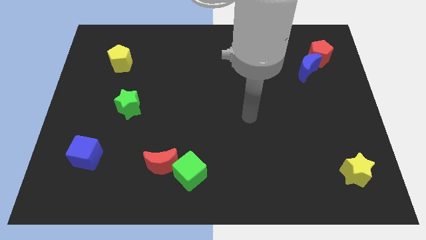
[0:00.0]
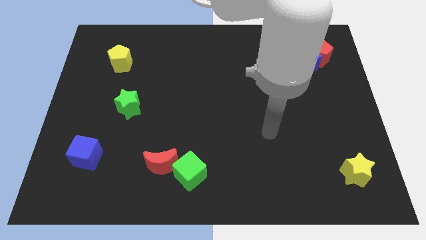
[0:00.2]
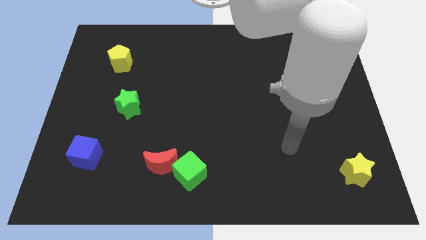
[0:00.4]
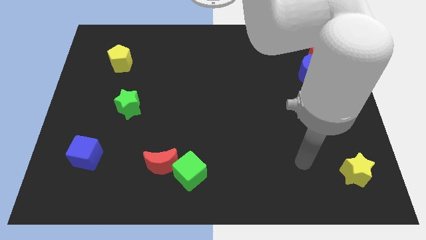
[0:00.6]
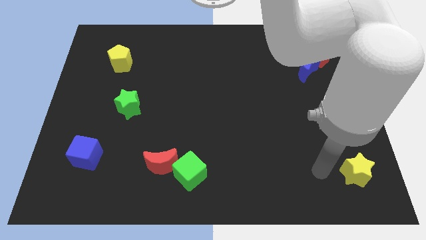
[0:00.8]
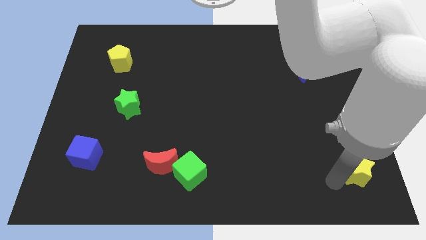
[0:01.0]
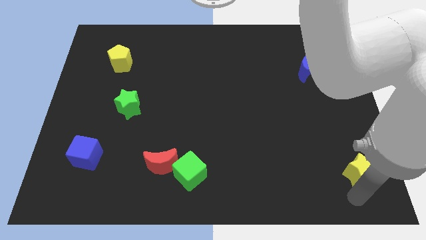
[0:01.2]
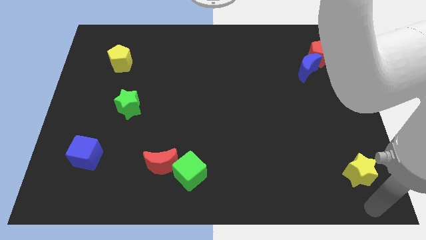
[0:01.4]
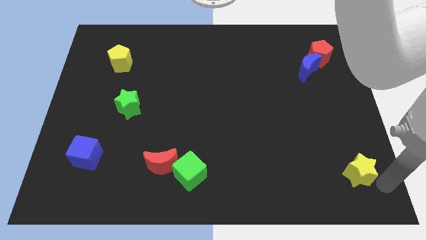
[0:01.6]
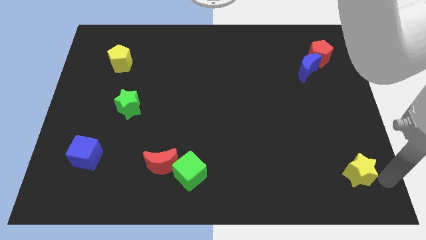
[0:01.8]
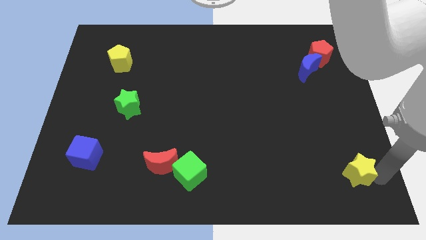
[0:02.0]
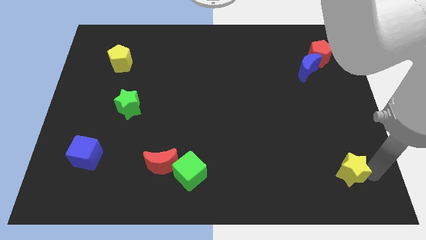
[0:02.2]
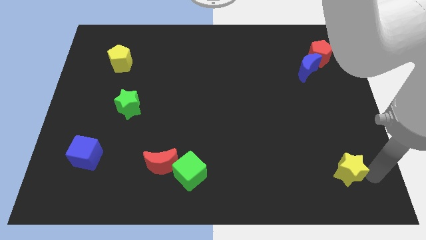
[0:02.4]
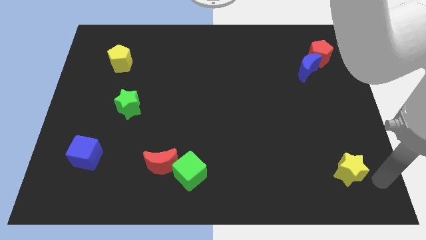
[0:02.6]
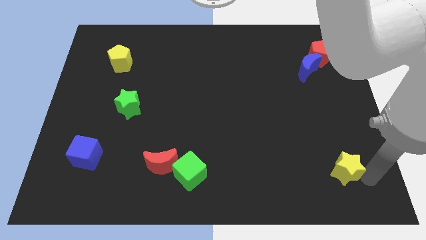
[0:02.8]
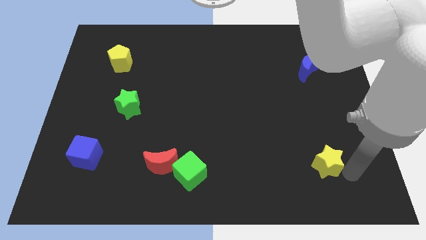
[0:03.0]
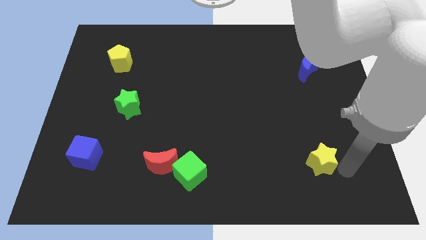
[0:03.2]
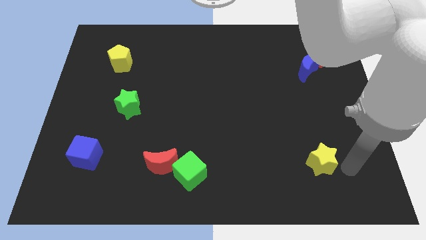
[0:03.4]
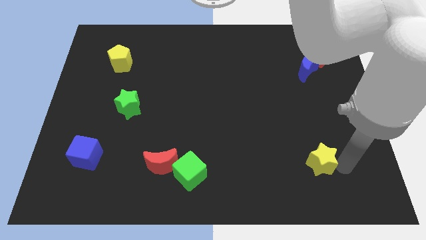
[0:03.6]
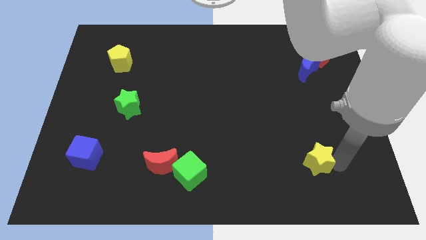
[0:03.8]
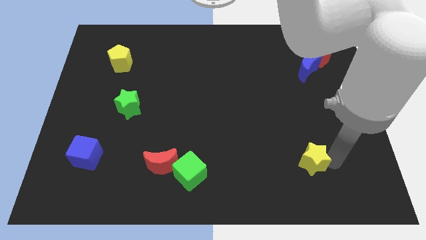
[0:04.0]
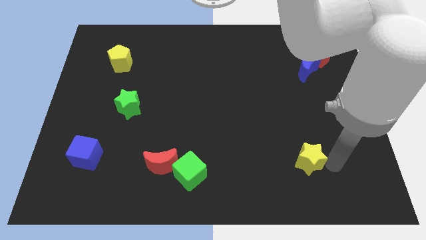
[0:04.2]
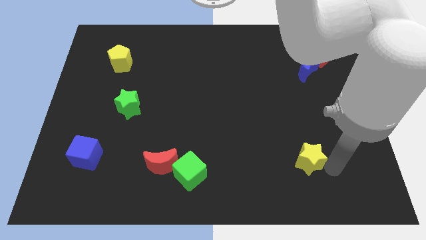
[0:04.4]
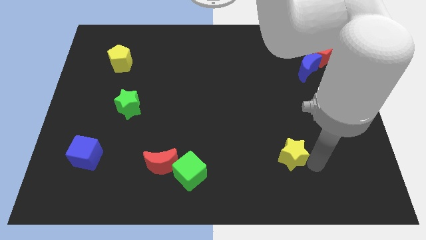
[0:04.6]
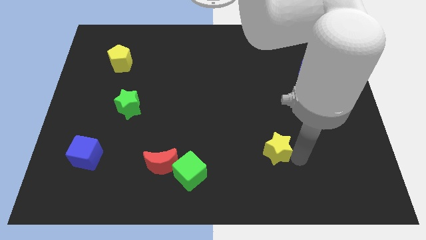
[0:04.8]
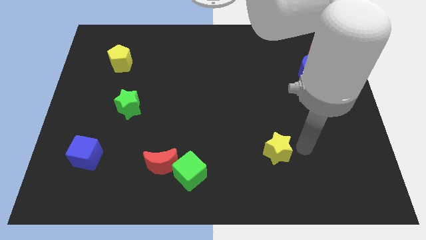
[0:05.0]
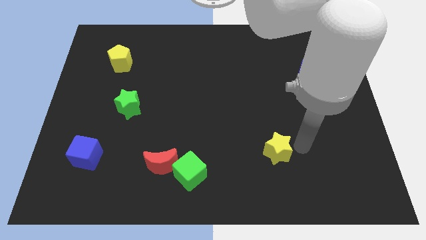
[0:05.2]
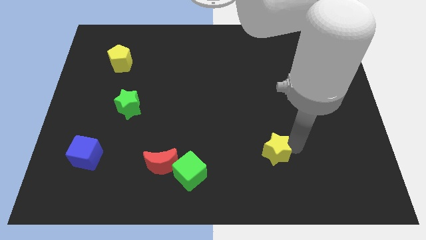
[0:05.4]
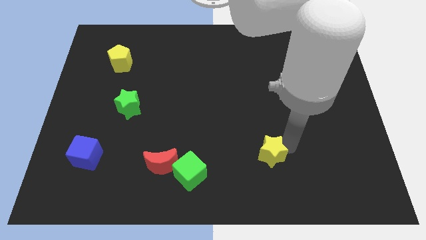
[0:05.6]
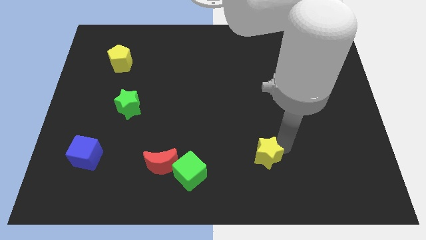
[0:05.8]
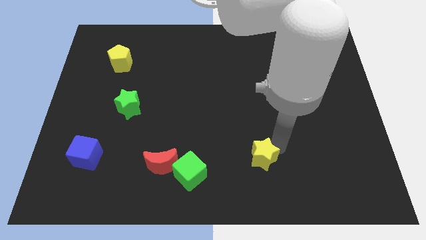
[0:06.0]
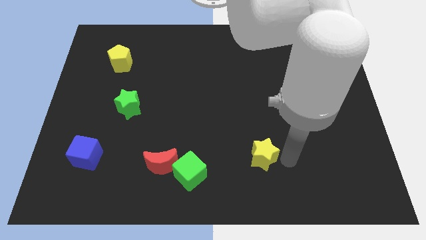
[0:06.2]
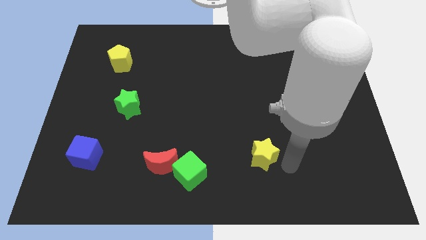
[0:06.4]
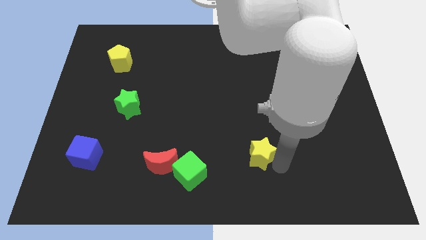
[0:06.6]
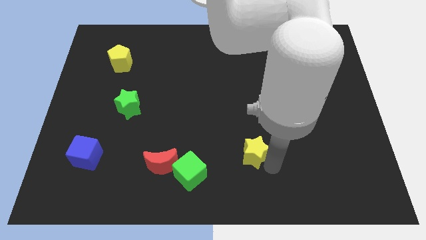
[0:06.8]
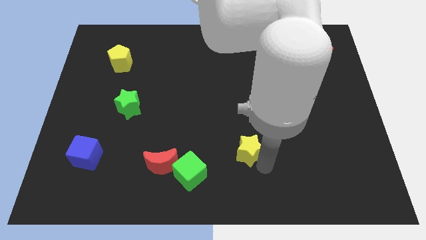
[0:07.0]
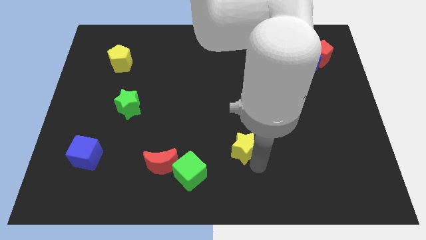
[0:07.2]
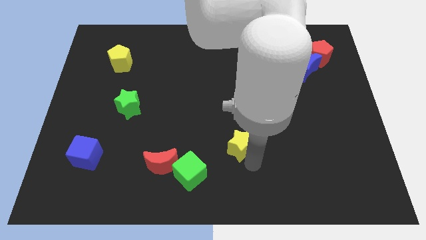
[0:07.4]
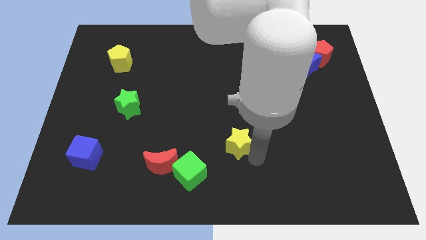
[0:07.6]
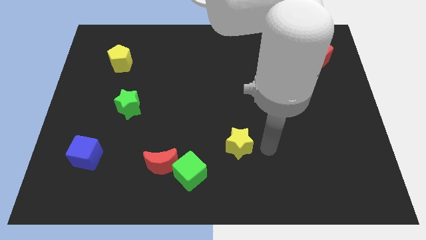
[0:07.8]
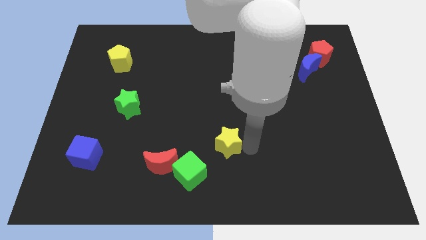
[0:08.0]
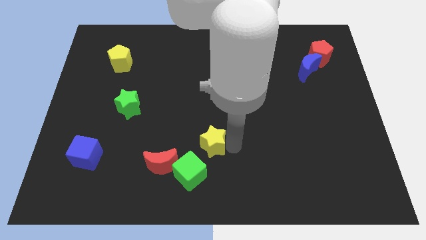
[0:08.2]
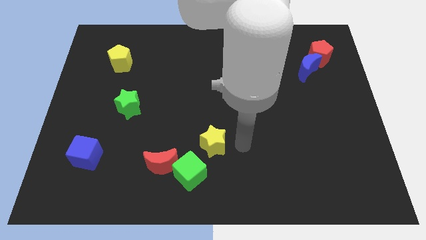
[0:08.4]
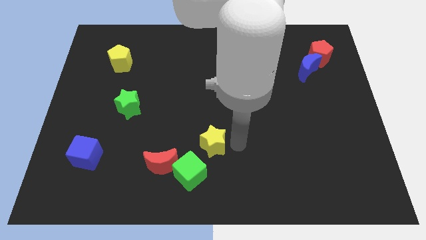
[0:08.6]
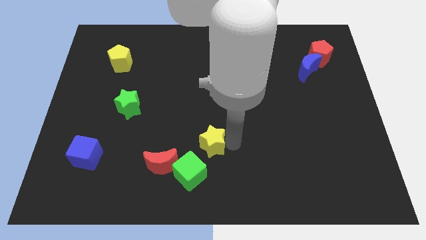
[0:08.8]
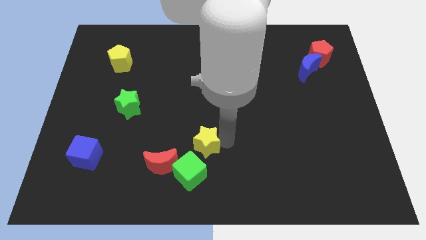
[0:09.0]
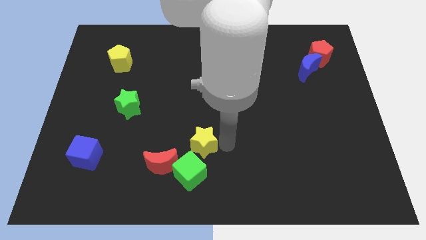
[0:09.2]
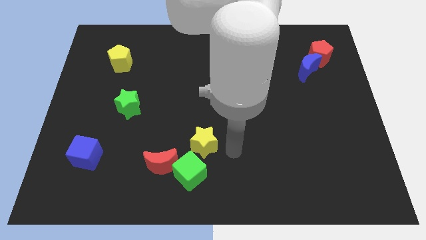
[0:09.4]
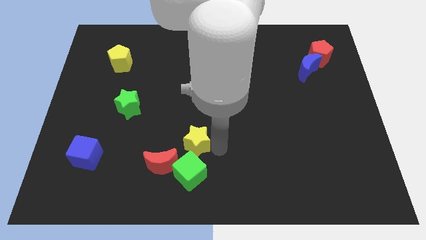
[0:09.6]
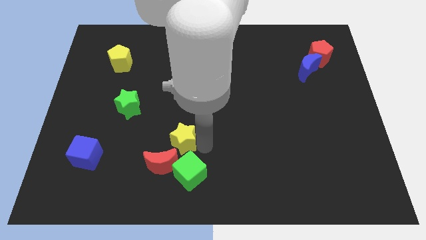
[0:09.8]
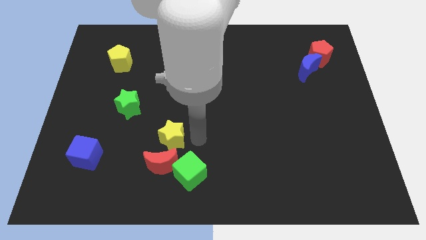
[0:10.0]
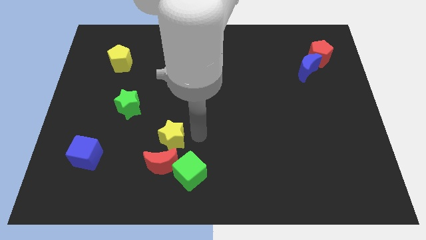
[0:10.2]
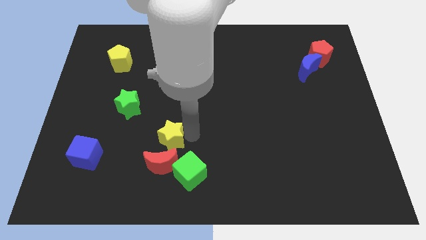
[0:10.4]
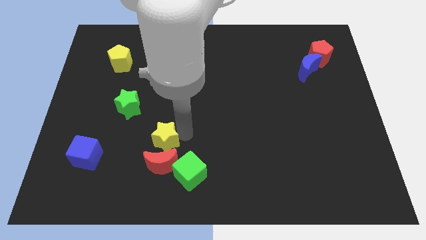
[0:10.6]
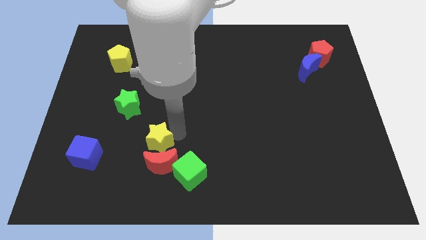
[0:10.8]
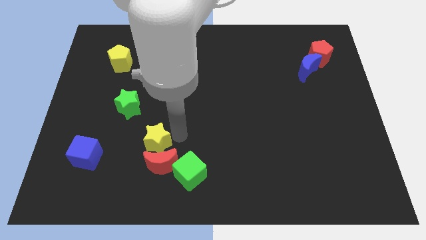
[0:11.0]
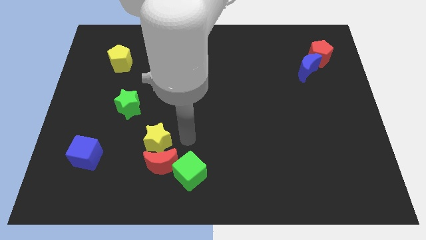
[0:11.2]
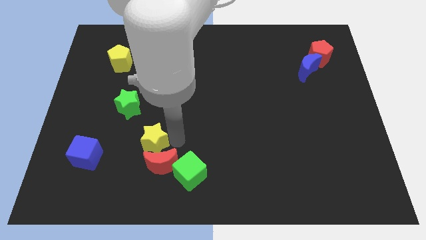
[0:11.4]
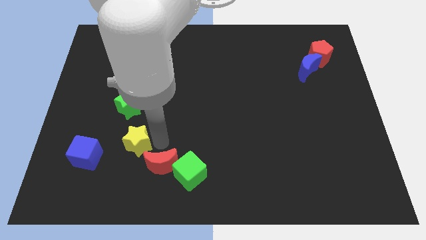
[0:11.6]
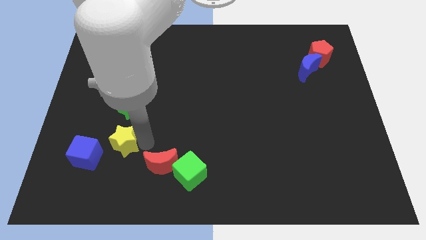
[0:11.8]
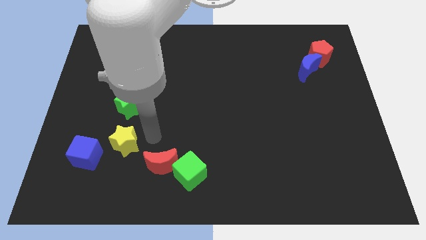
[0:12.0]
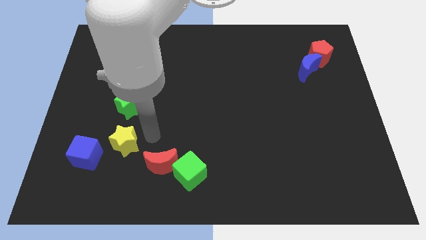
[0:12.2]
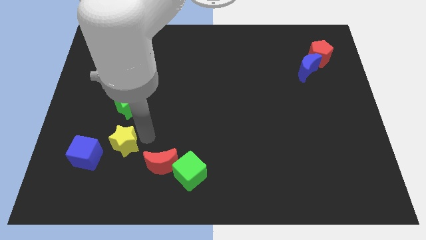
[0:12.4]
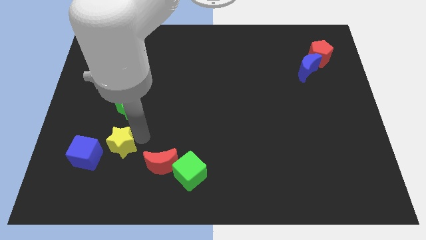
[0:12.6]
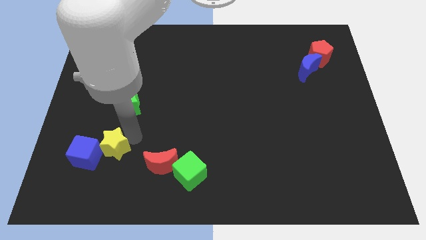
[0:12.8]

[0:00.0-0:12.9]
push the yellow star towards the blue cube
